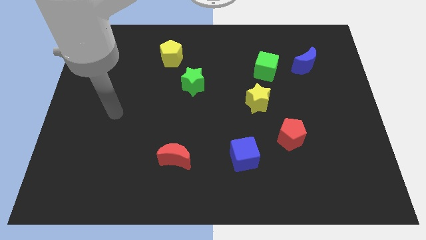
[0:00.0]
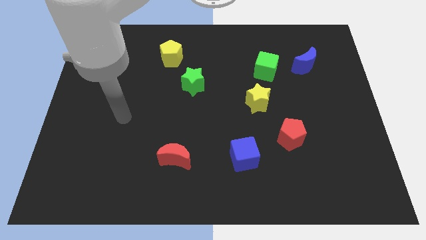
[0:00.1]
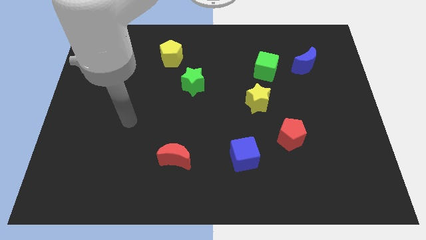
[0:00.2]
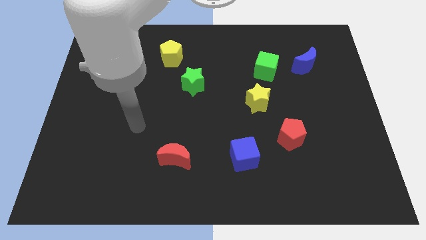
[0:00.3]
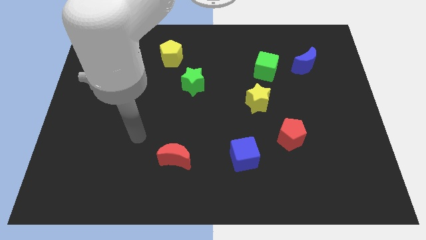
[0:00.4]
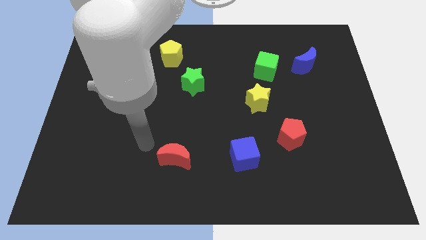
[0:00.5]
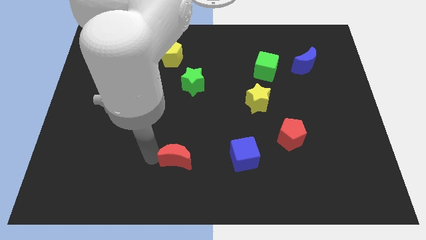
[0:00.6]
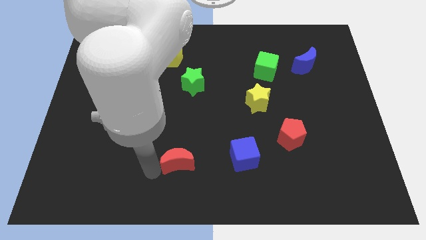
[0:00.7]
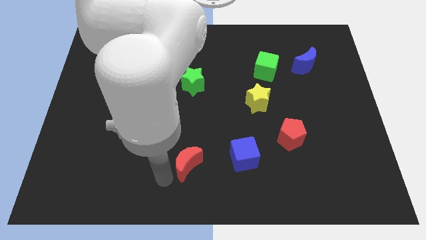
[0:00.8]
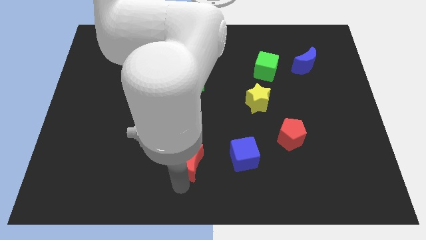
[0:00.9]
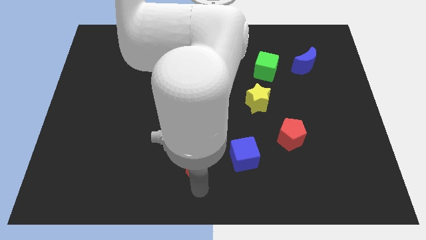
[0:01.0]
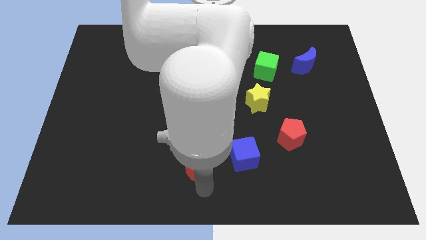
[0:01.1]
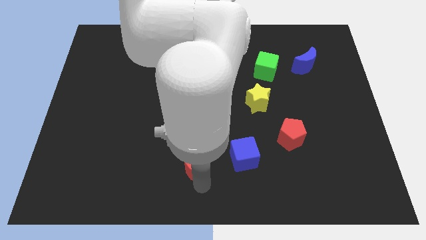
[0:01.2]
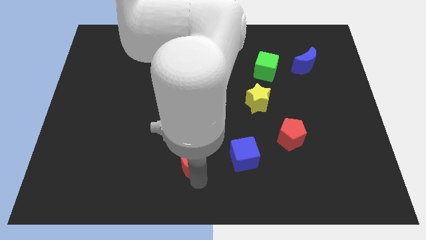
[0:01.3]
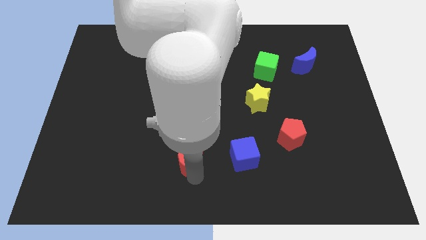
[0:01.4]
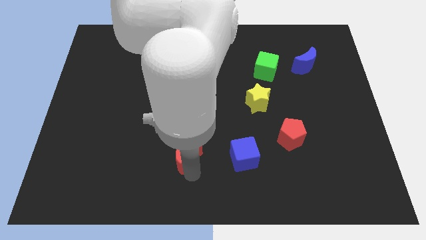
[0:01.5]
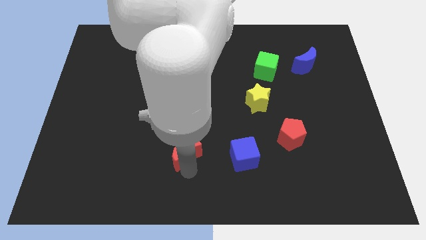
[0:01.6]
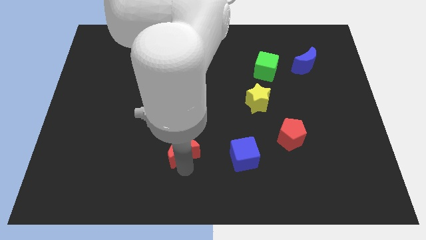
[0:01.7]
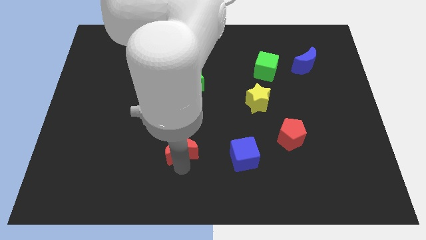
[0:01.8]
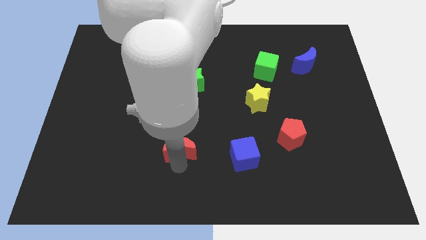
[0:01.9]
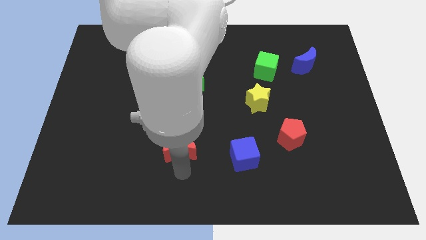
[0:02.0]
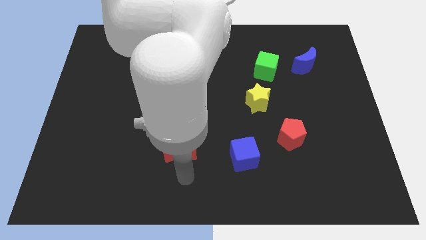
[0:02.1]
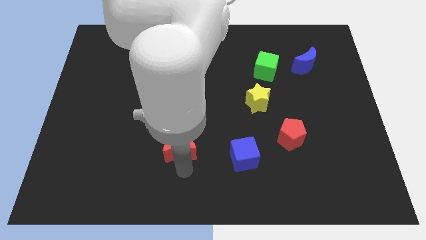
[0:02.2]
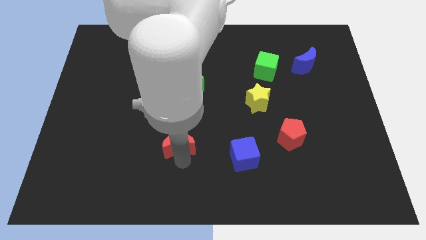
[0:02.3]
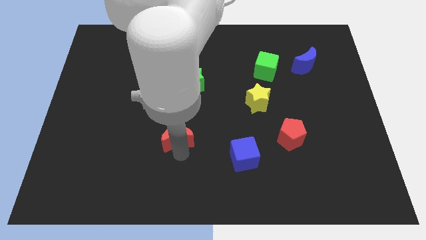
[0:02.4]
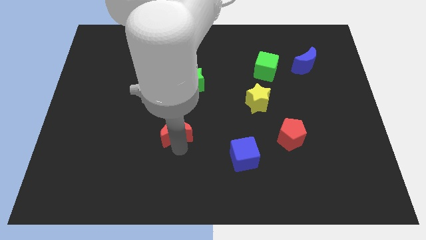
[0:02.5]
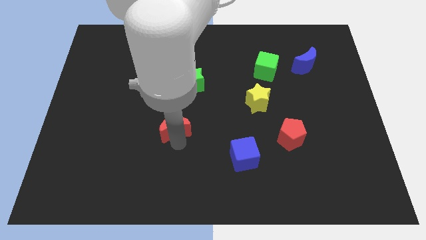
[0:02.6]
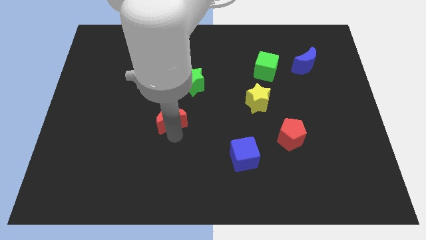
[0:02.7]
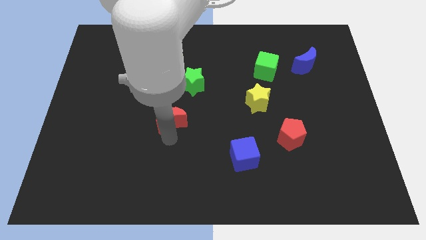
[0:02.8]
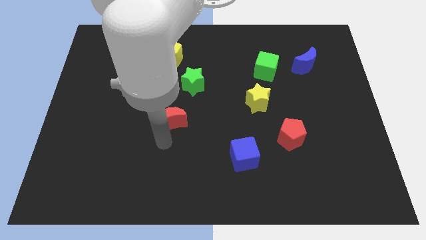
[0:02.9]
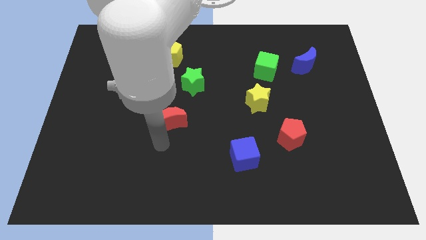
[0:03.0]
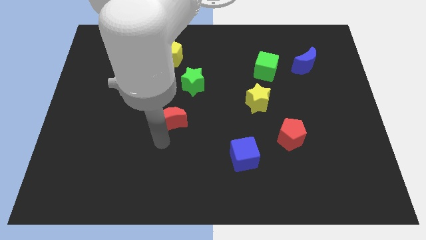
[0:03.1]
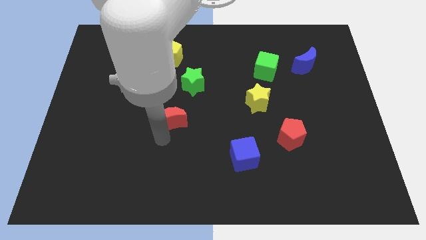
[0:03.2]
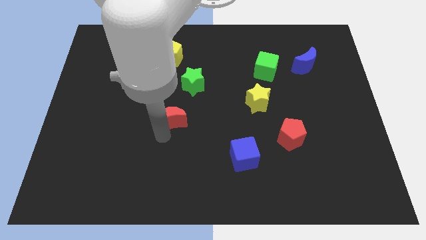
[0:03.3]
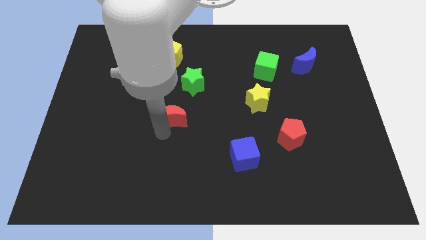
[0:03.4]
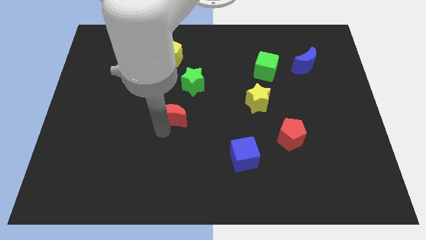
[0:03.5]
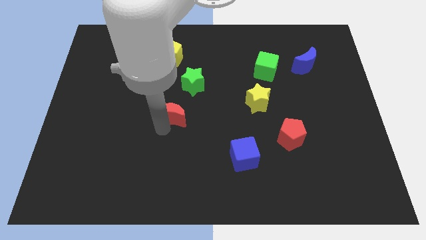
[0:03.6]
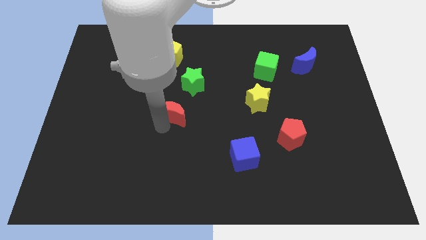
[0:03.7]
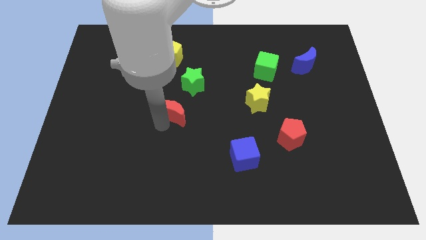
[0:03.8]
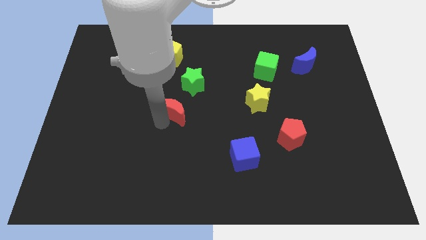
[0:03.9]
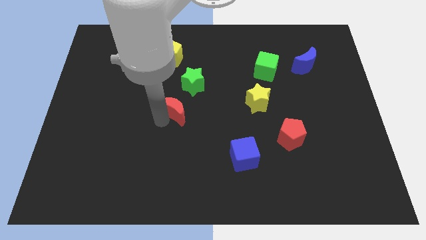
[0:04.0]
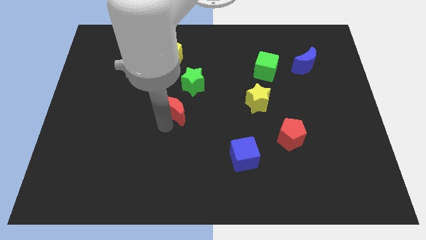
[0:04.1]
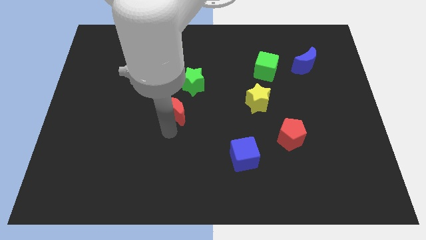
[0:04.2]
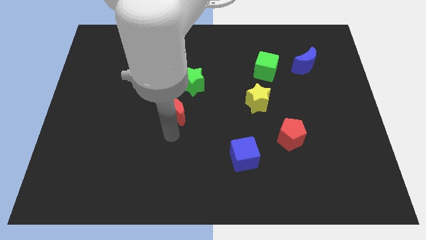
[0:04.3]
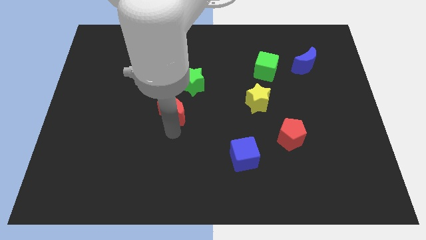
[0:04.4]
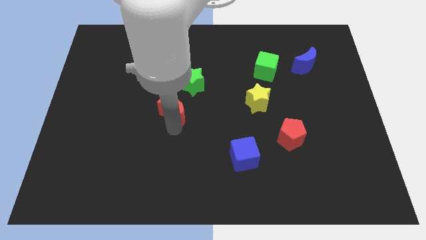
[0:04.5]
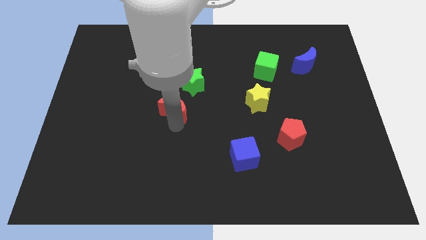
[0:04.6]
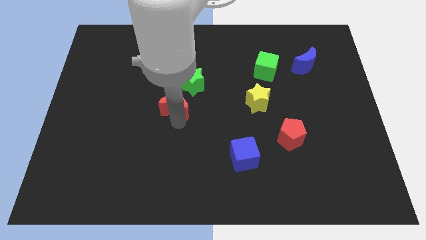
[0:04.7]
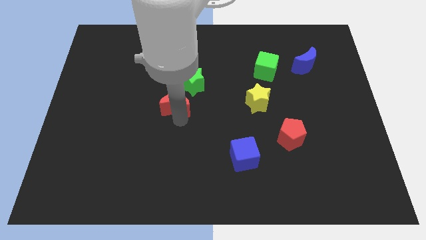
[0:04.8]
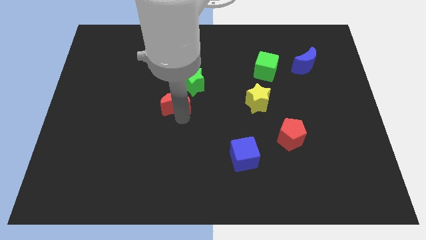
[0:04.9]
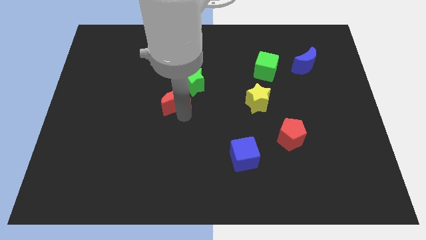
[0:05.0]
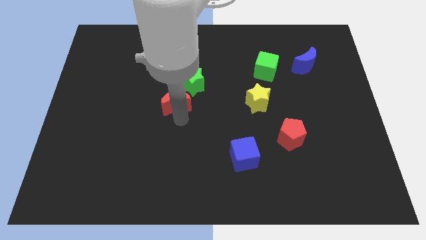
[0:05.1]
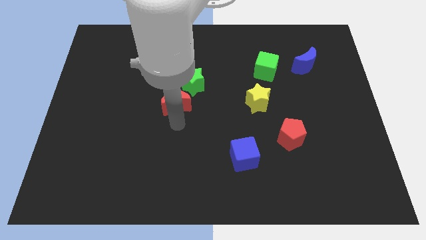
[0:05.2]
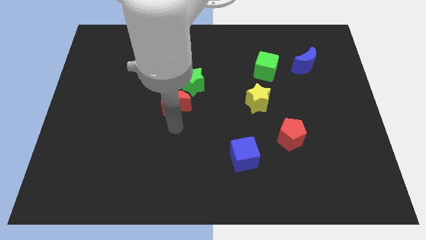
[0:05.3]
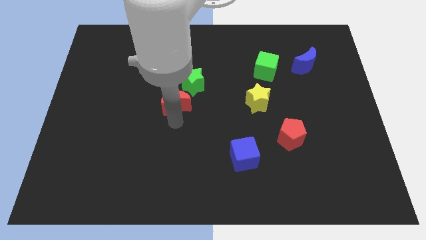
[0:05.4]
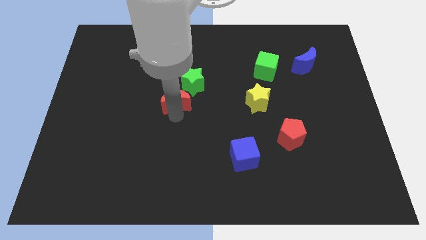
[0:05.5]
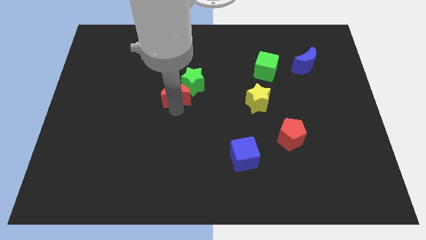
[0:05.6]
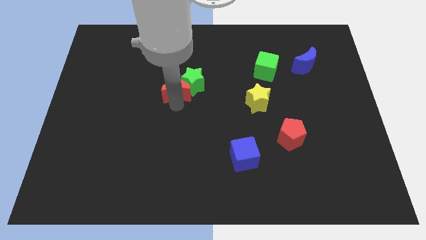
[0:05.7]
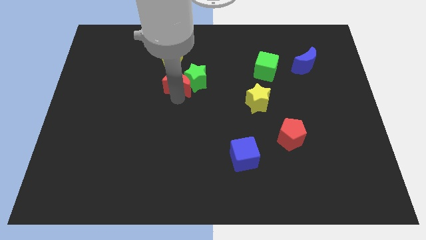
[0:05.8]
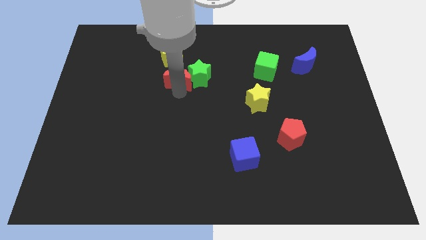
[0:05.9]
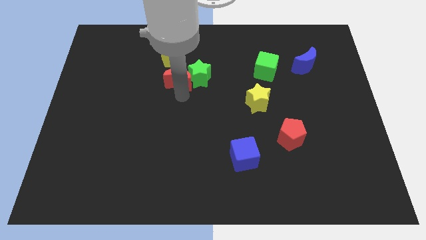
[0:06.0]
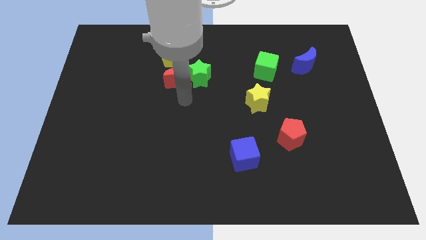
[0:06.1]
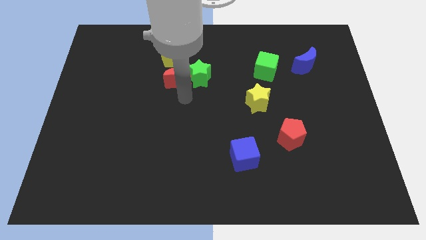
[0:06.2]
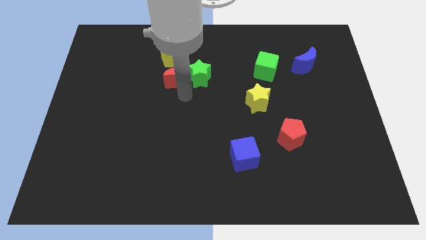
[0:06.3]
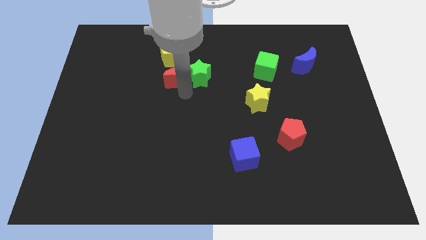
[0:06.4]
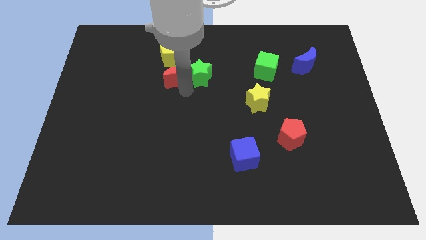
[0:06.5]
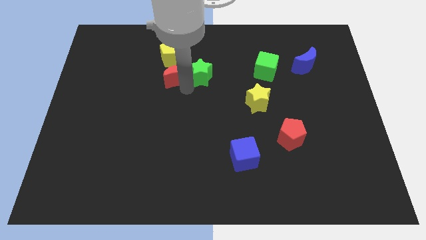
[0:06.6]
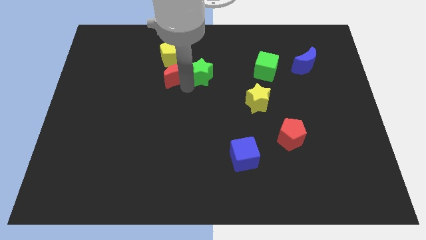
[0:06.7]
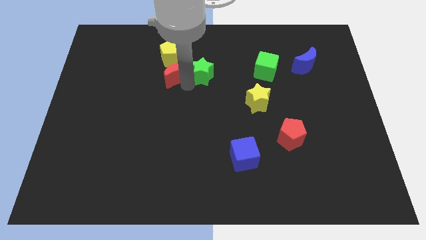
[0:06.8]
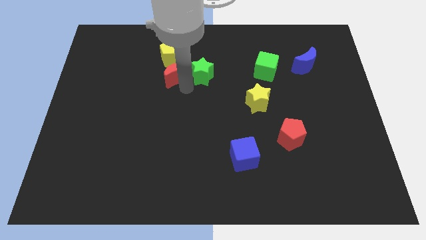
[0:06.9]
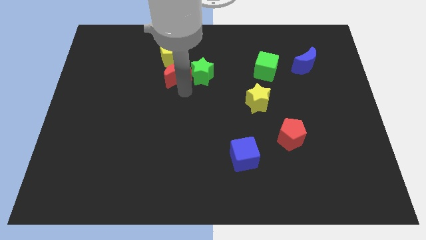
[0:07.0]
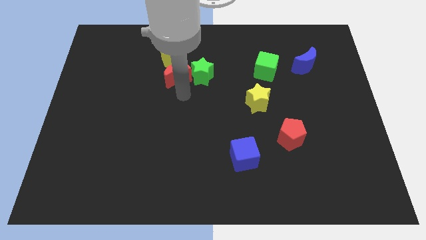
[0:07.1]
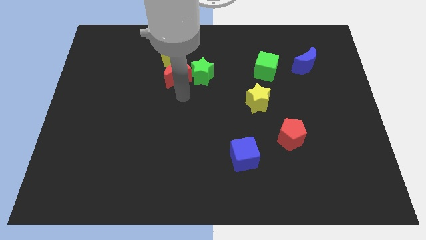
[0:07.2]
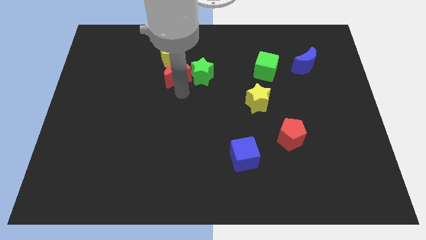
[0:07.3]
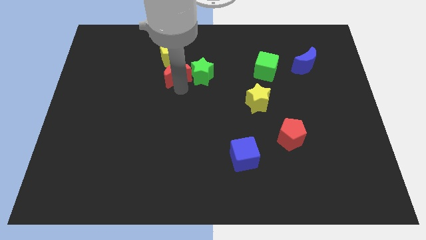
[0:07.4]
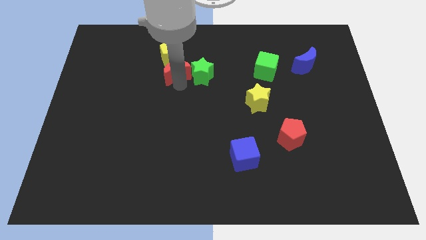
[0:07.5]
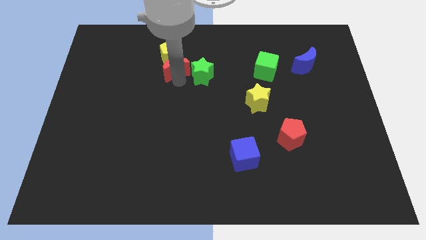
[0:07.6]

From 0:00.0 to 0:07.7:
put the red moon to the yellow pentagon
